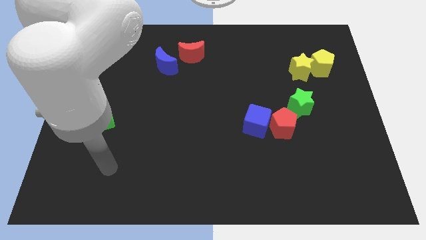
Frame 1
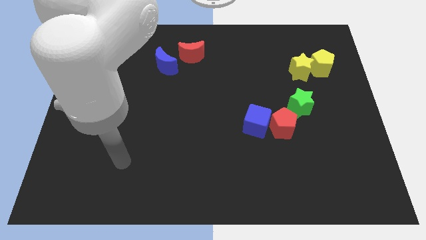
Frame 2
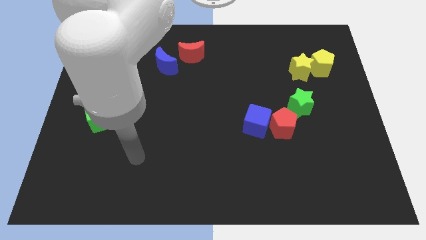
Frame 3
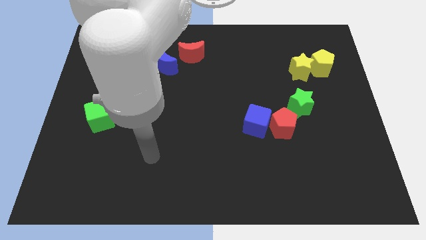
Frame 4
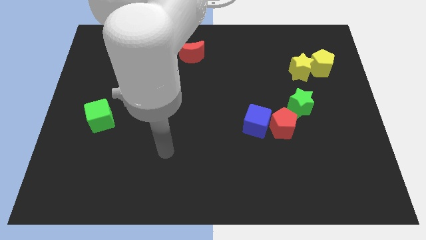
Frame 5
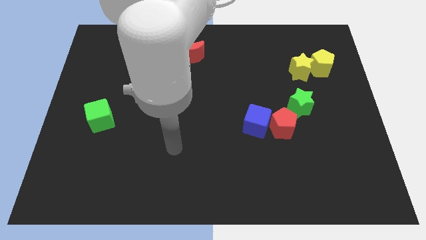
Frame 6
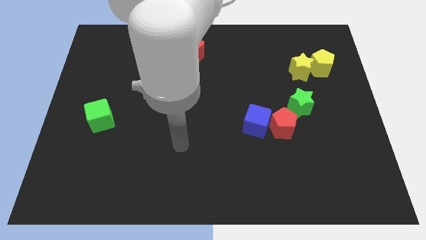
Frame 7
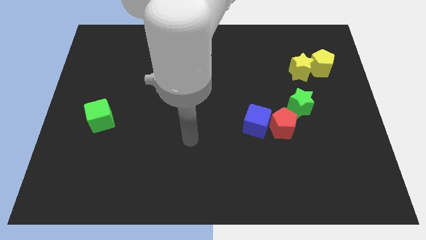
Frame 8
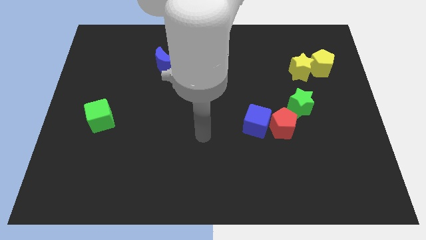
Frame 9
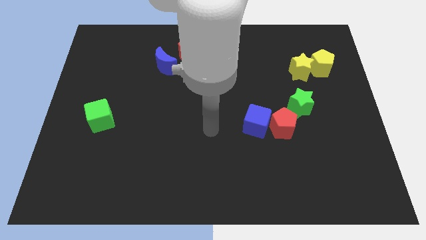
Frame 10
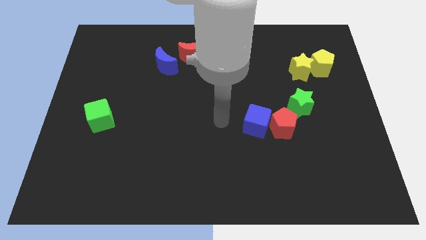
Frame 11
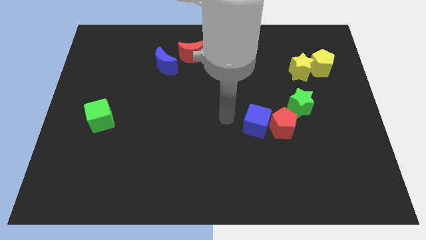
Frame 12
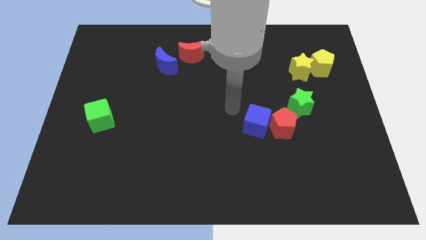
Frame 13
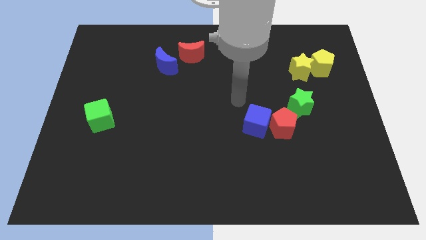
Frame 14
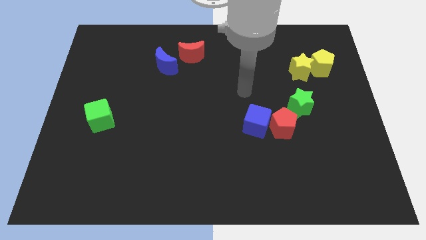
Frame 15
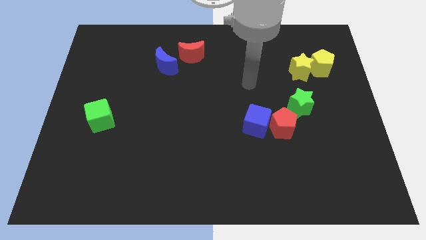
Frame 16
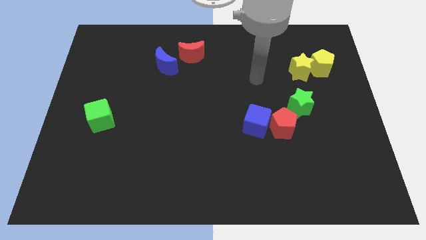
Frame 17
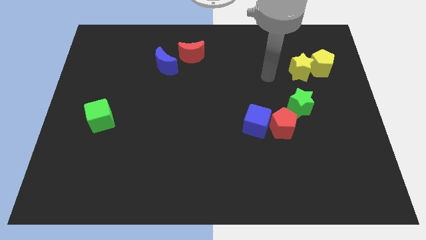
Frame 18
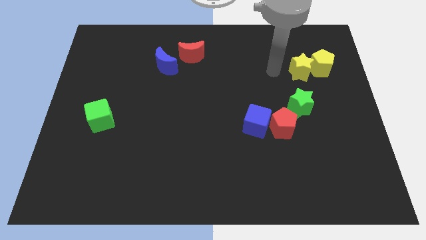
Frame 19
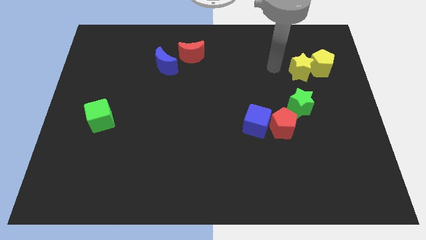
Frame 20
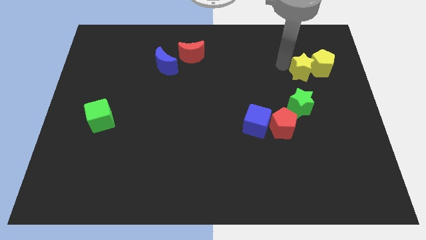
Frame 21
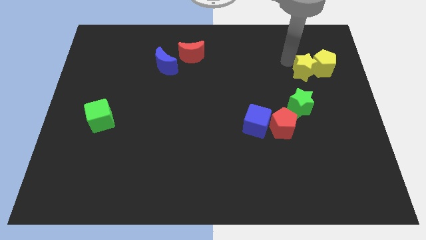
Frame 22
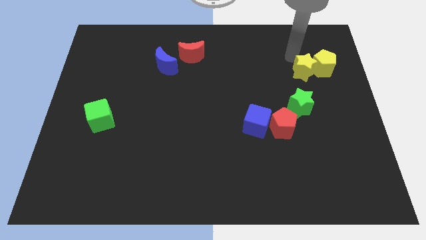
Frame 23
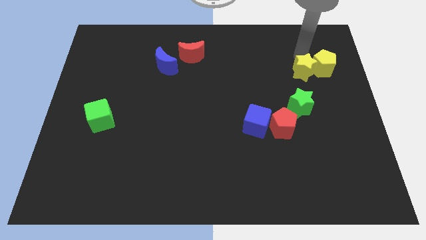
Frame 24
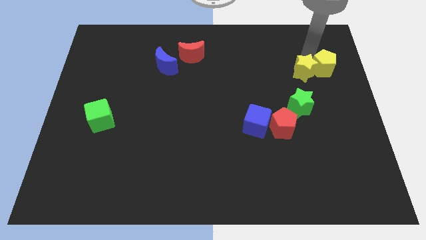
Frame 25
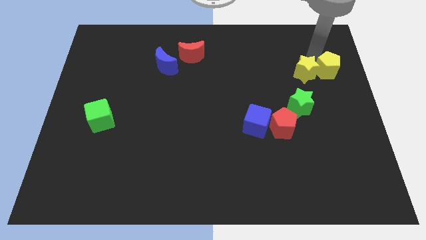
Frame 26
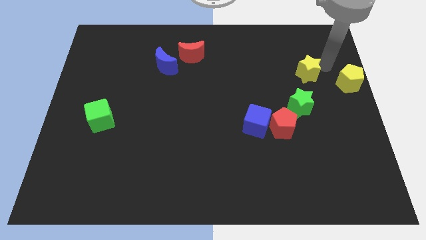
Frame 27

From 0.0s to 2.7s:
move the yellow star away from the yellow pentagon

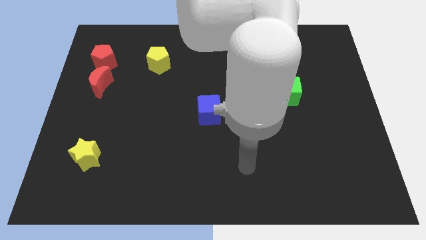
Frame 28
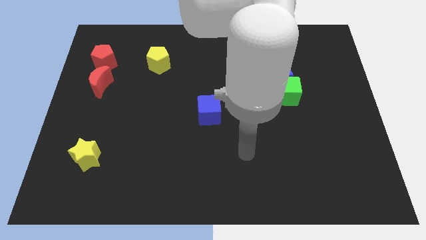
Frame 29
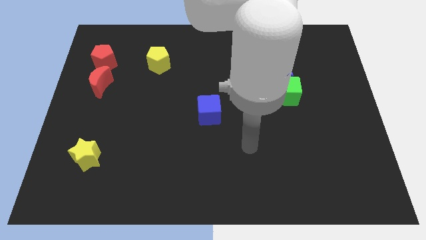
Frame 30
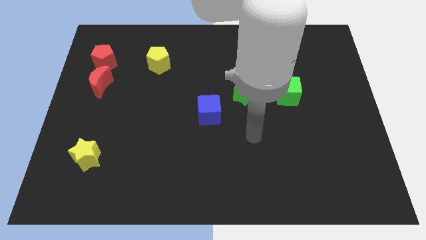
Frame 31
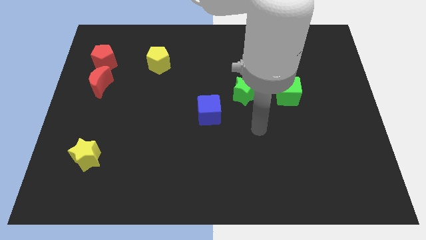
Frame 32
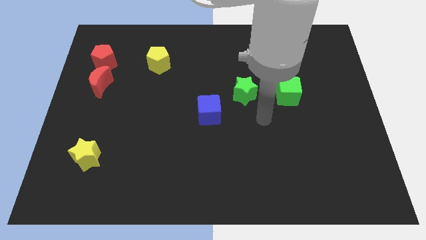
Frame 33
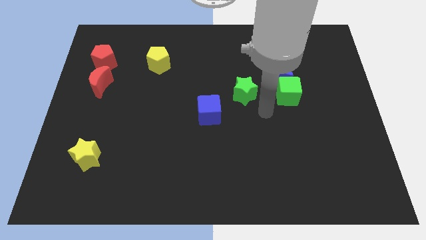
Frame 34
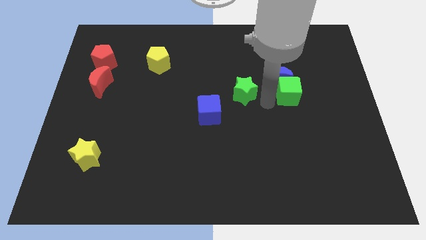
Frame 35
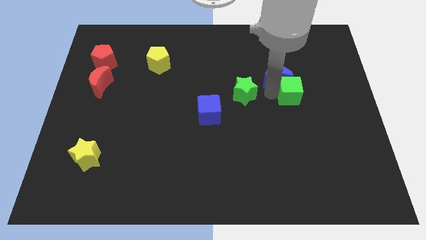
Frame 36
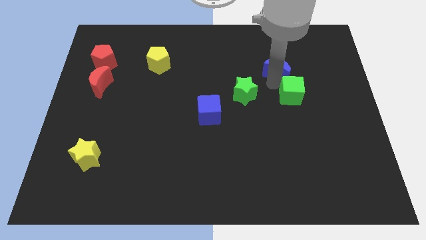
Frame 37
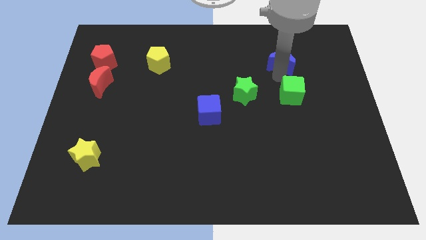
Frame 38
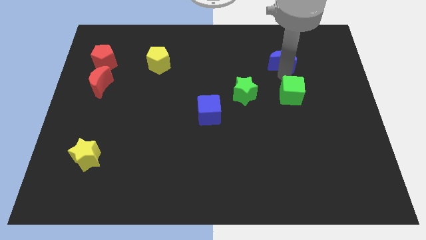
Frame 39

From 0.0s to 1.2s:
move the green cube away from the blue moon

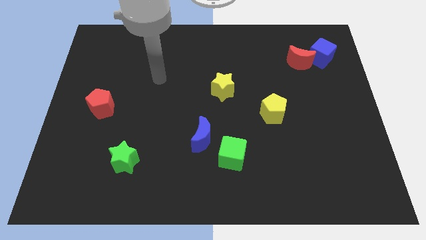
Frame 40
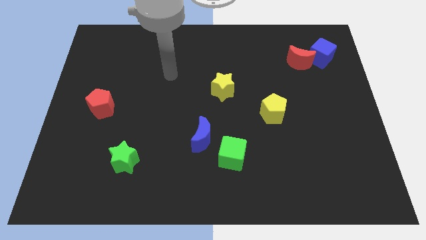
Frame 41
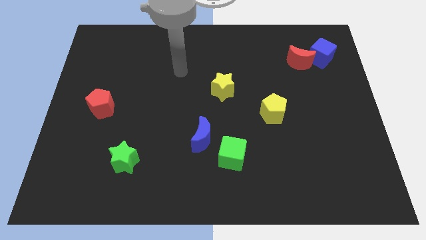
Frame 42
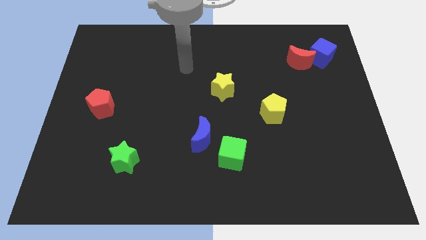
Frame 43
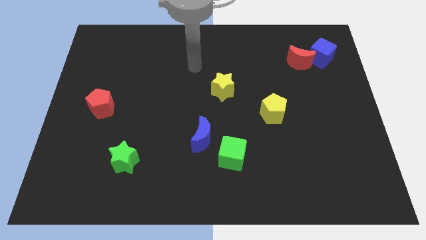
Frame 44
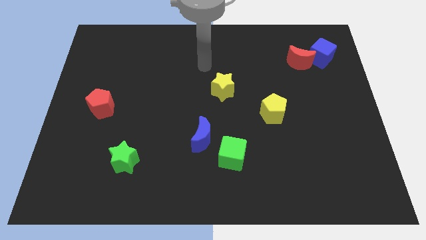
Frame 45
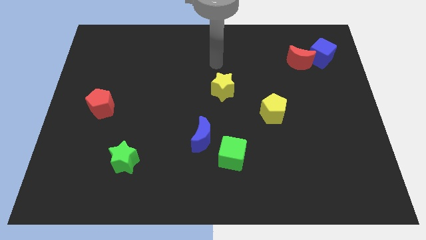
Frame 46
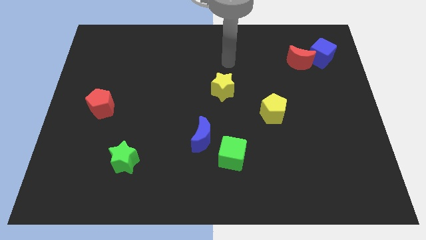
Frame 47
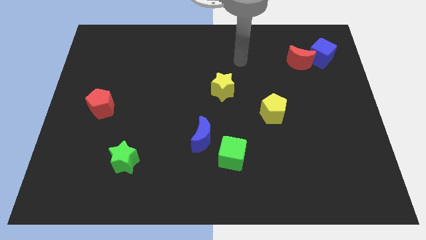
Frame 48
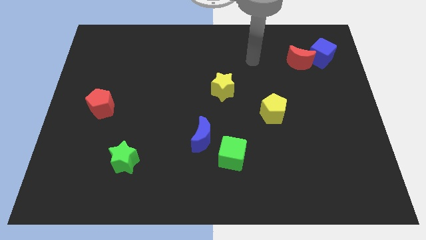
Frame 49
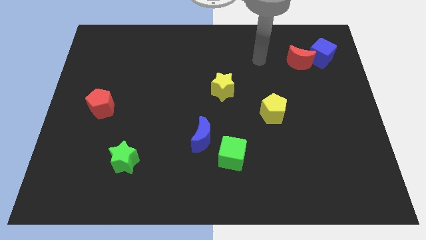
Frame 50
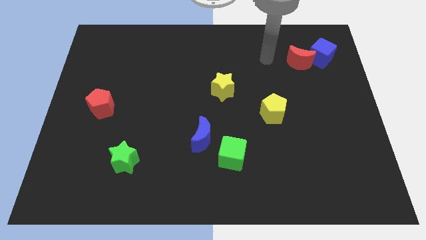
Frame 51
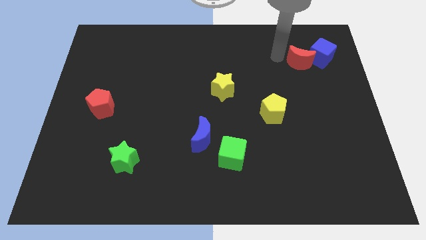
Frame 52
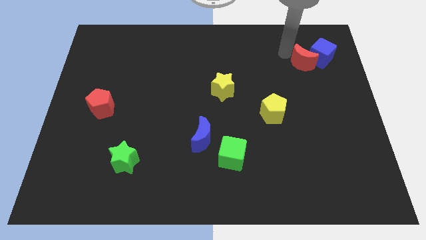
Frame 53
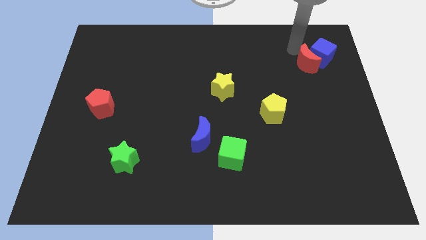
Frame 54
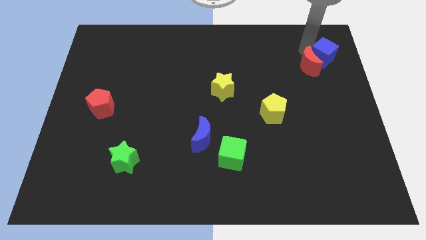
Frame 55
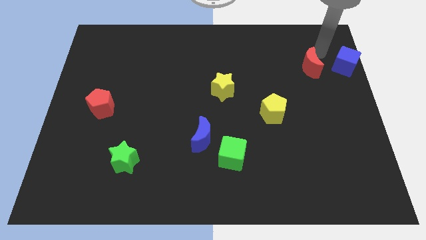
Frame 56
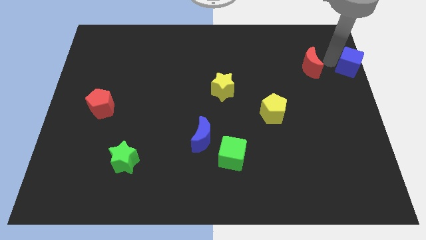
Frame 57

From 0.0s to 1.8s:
separate the red moon from the blue cube

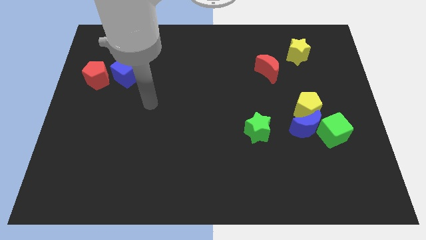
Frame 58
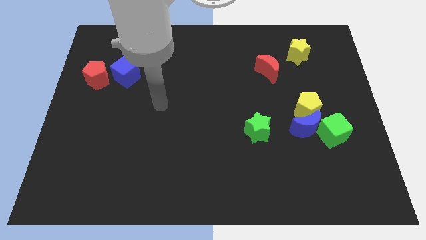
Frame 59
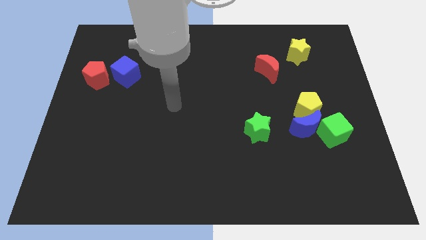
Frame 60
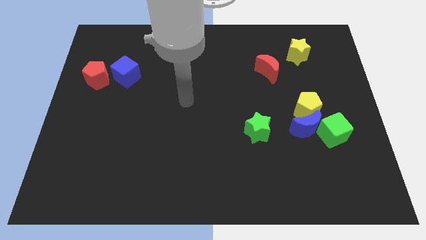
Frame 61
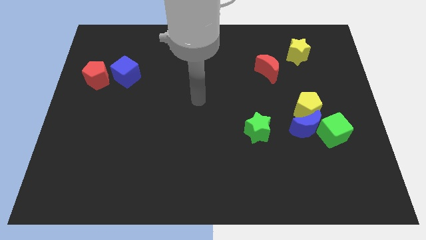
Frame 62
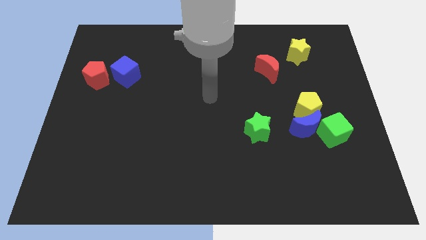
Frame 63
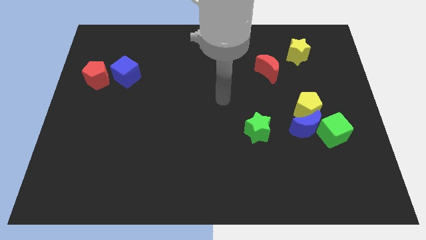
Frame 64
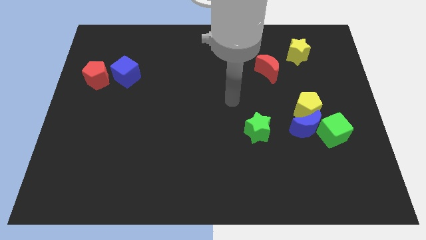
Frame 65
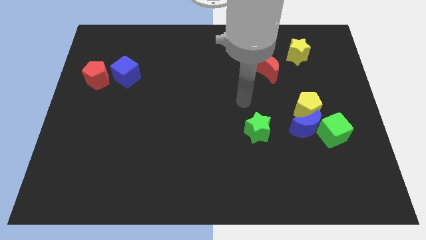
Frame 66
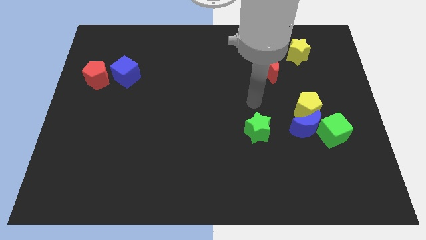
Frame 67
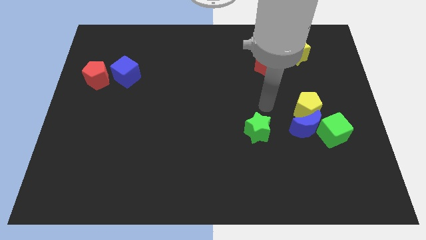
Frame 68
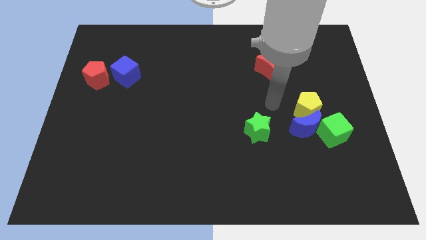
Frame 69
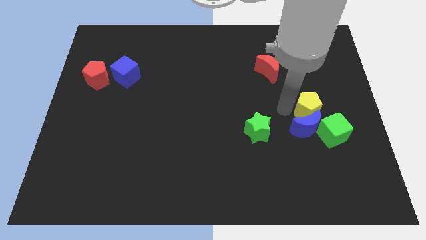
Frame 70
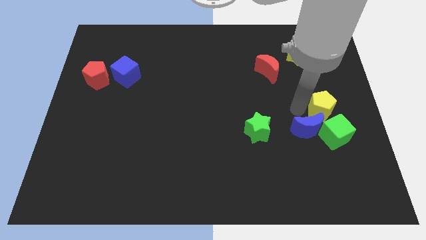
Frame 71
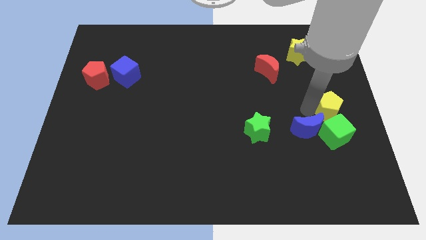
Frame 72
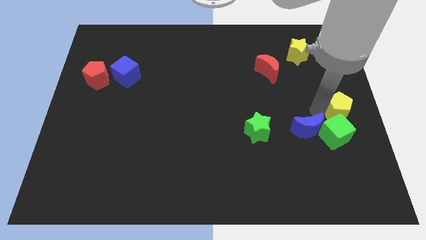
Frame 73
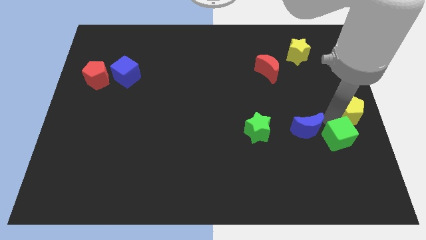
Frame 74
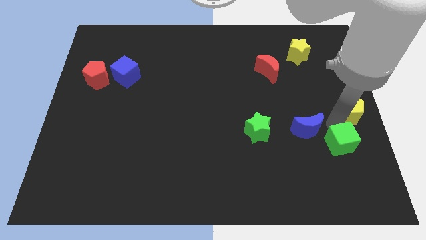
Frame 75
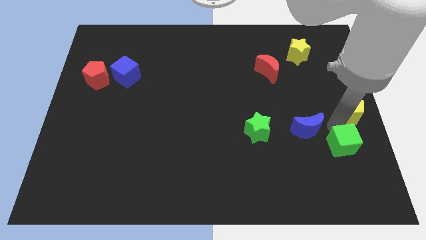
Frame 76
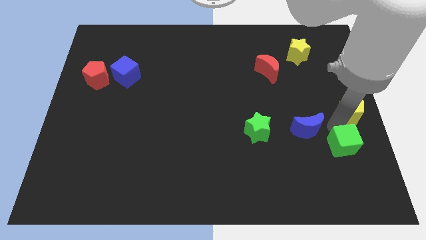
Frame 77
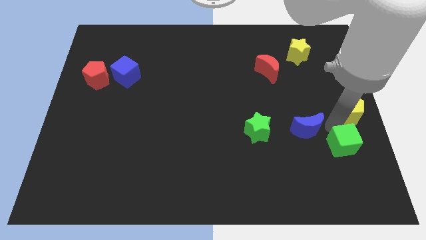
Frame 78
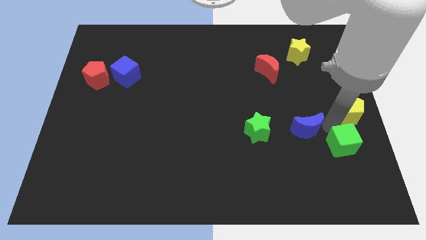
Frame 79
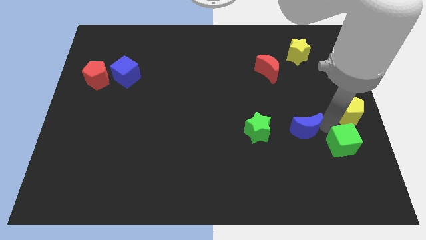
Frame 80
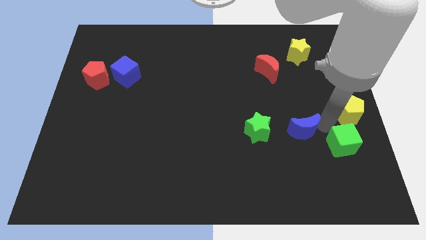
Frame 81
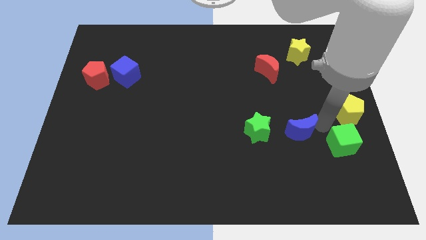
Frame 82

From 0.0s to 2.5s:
move the blue moon away from the yellow pentagon and green cube

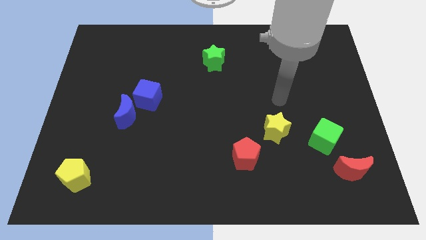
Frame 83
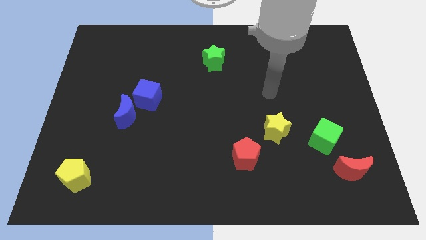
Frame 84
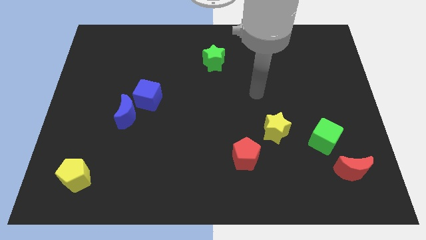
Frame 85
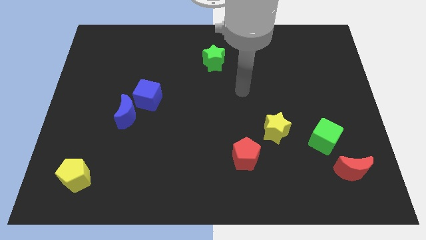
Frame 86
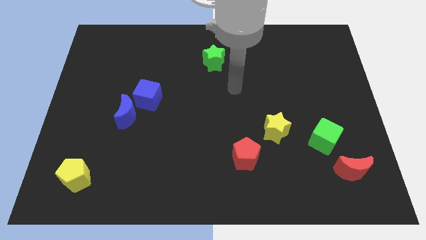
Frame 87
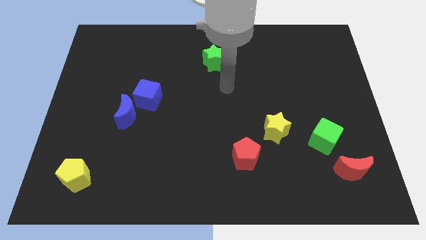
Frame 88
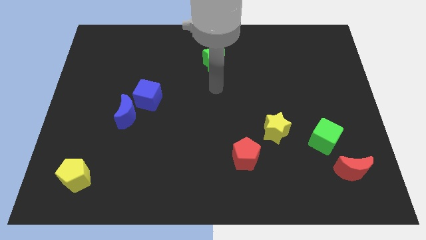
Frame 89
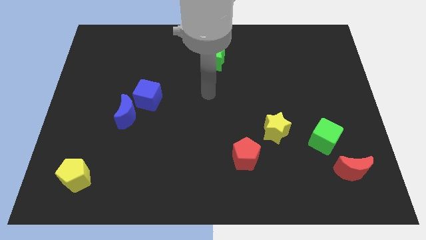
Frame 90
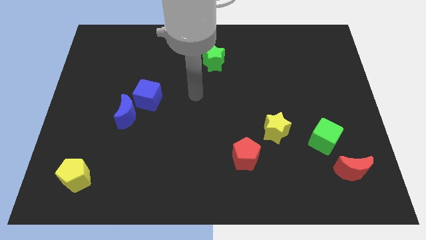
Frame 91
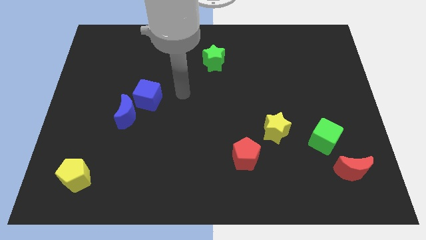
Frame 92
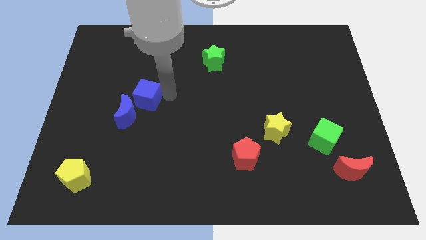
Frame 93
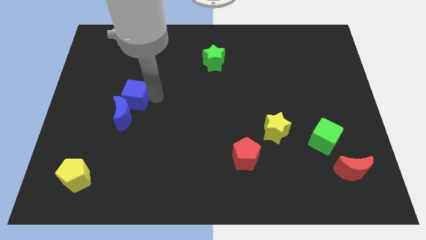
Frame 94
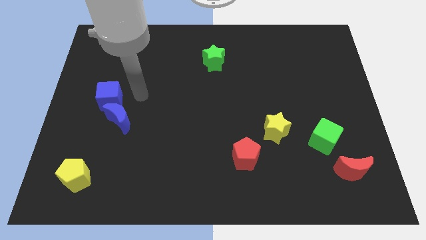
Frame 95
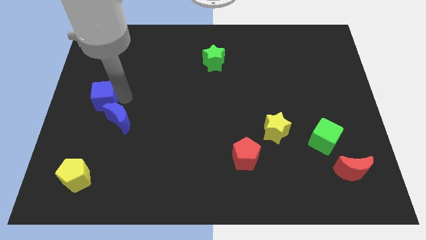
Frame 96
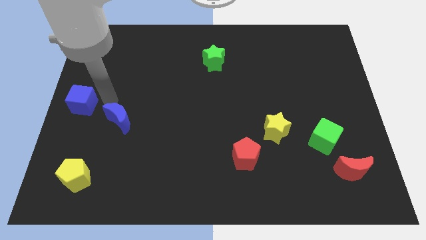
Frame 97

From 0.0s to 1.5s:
move the blue moon away from the blue cube
